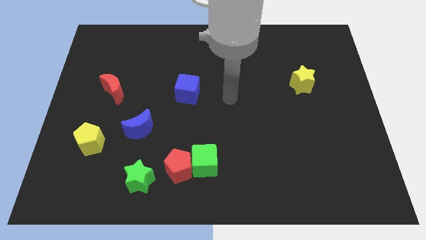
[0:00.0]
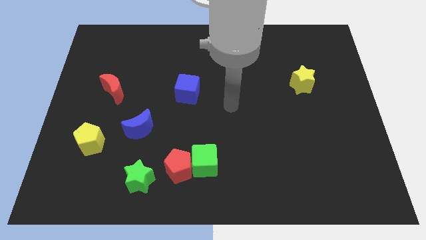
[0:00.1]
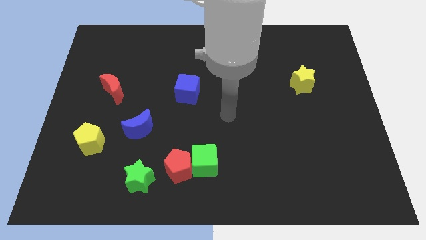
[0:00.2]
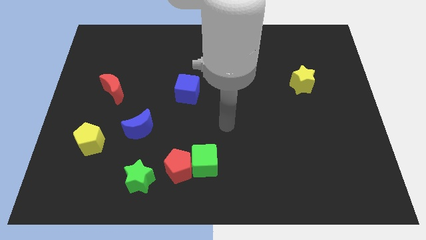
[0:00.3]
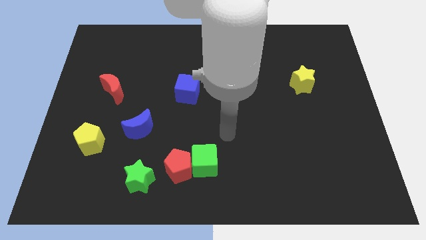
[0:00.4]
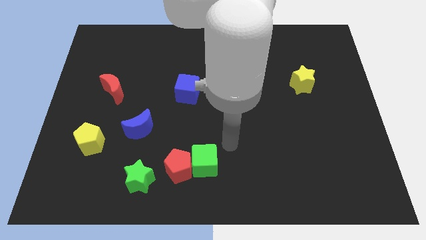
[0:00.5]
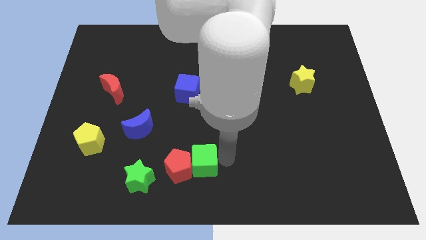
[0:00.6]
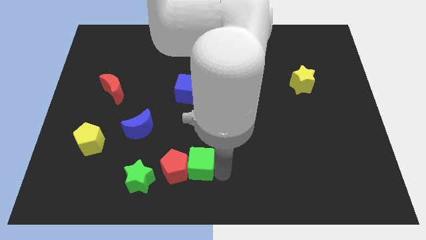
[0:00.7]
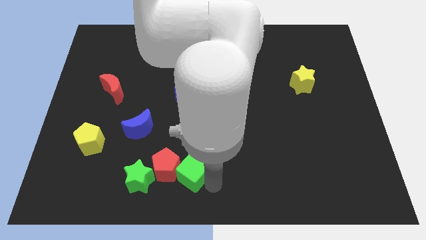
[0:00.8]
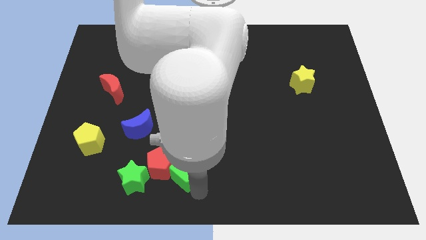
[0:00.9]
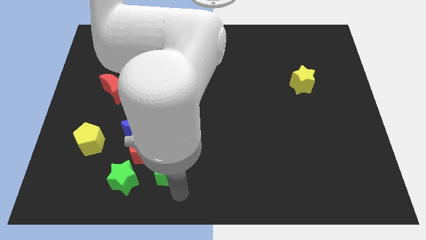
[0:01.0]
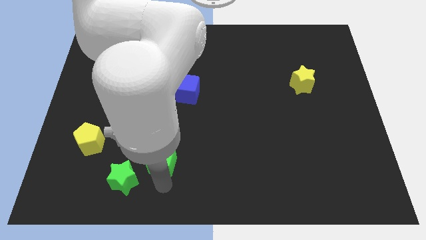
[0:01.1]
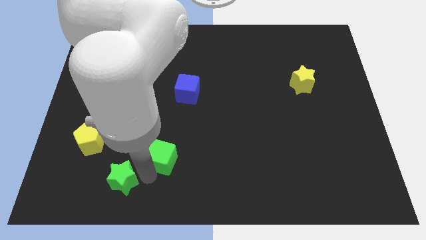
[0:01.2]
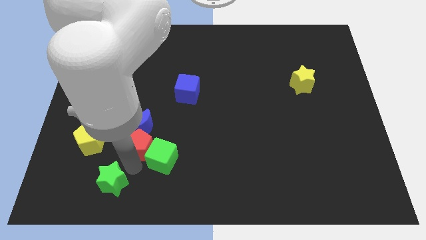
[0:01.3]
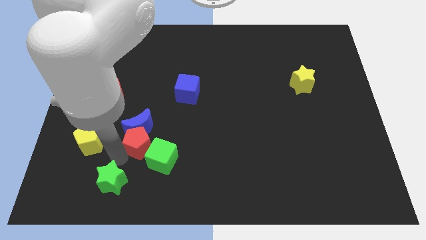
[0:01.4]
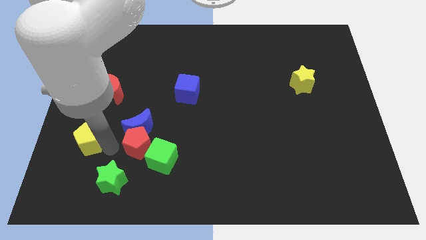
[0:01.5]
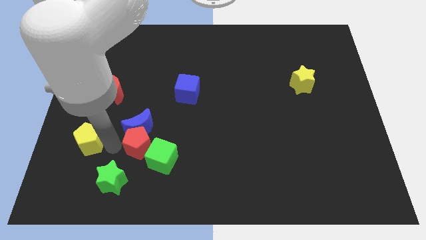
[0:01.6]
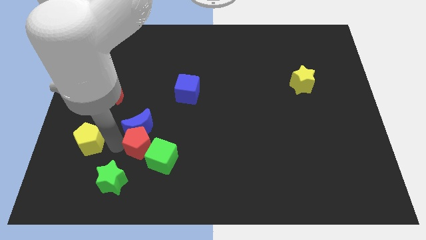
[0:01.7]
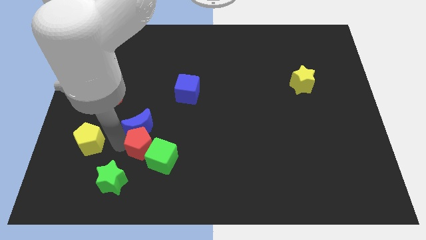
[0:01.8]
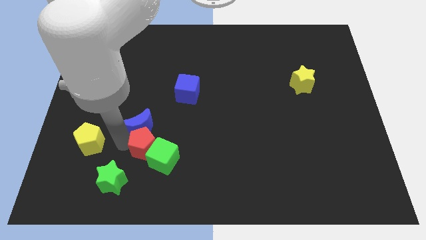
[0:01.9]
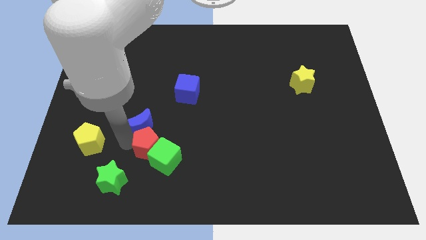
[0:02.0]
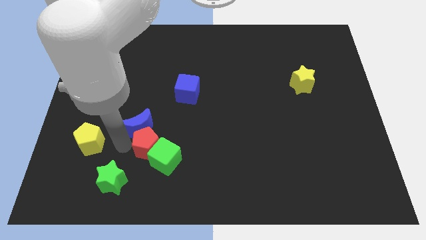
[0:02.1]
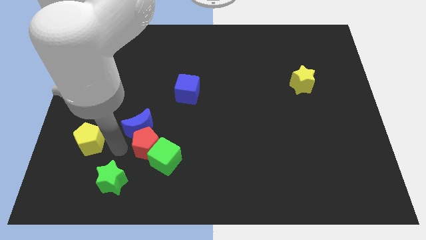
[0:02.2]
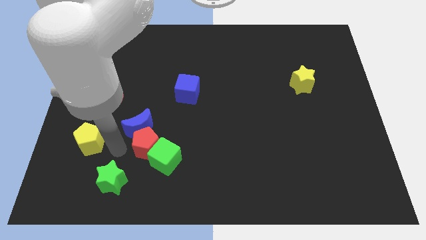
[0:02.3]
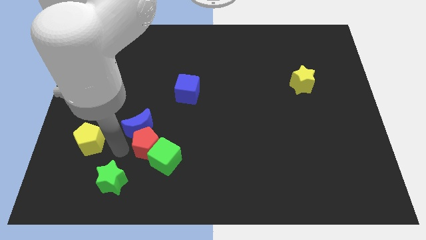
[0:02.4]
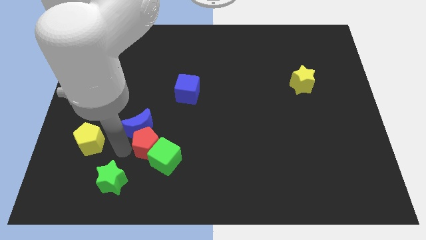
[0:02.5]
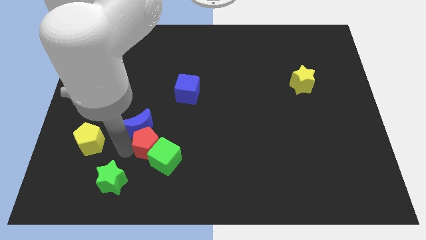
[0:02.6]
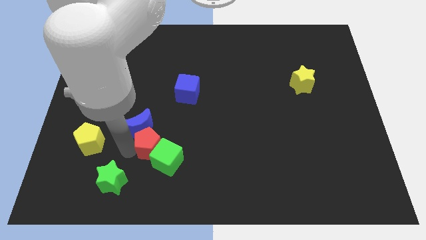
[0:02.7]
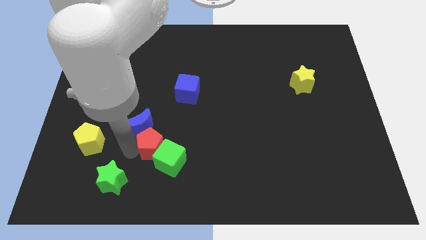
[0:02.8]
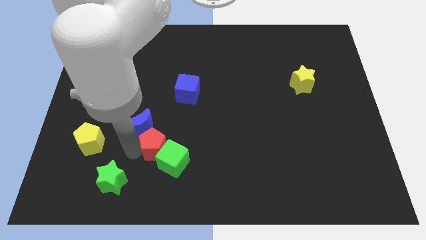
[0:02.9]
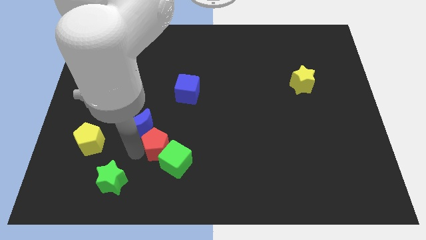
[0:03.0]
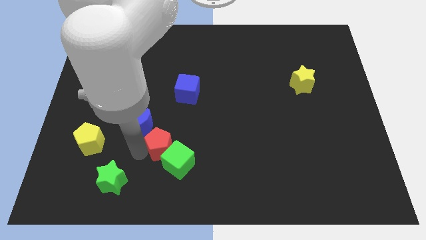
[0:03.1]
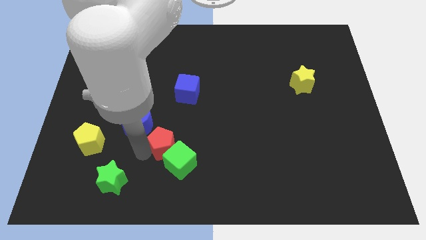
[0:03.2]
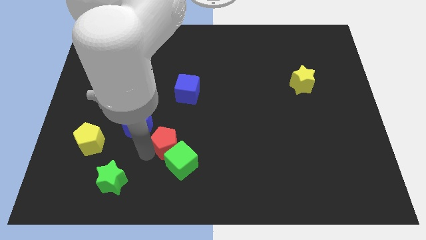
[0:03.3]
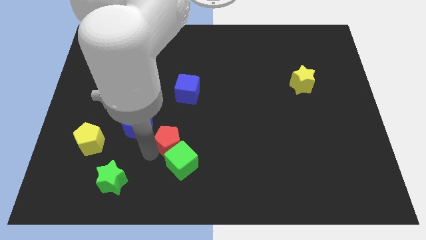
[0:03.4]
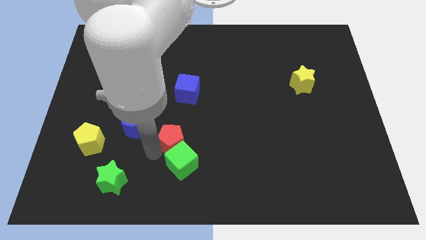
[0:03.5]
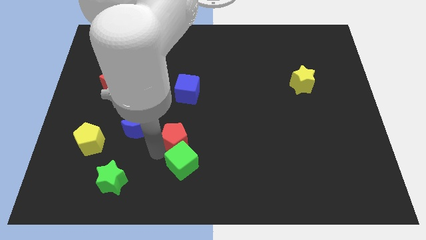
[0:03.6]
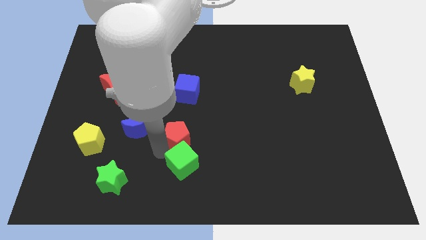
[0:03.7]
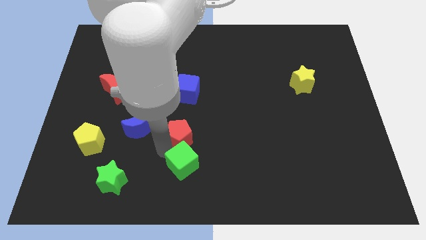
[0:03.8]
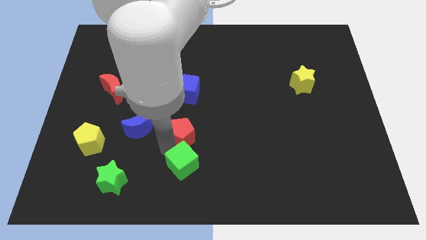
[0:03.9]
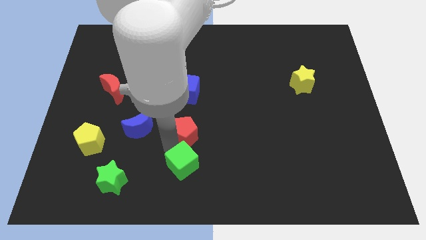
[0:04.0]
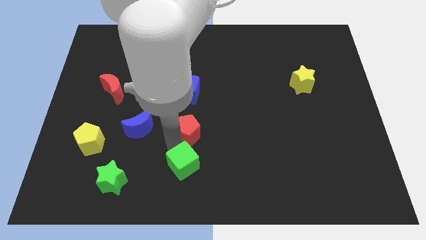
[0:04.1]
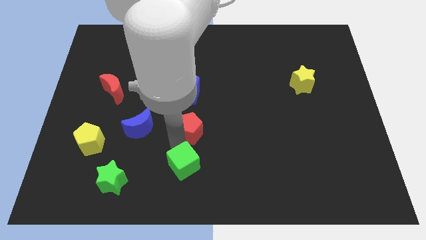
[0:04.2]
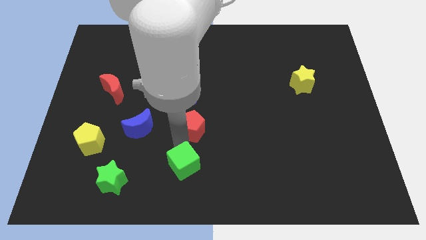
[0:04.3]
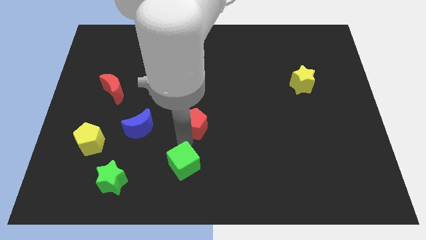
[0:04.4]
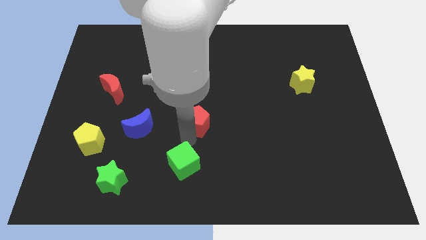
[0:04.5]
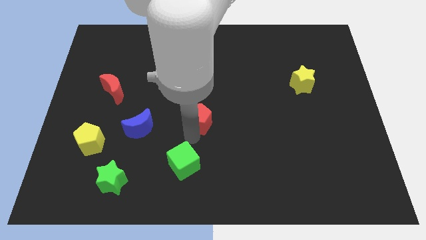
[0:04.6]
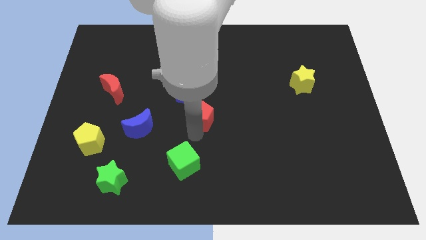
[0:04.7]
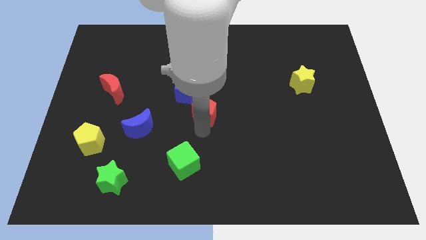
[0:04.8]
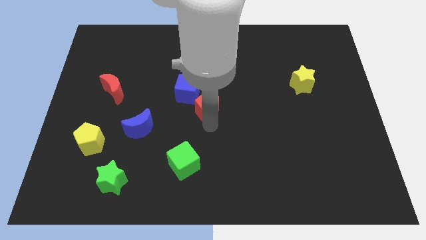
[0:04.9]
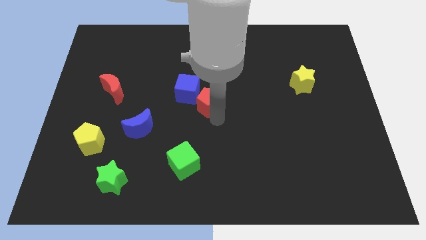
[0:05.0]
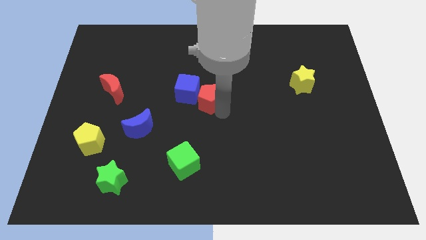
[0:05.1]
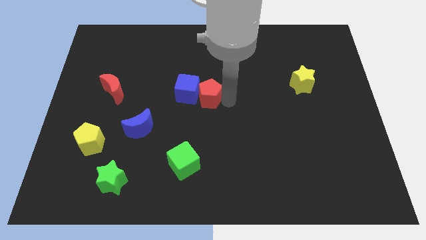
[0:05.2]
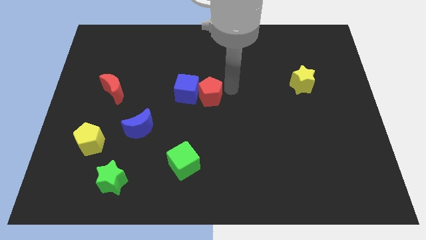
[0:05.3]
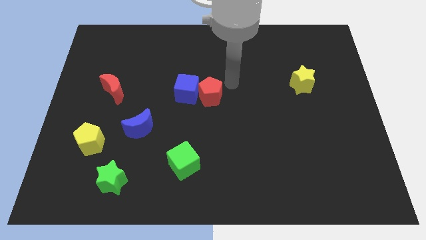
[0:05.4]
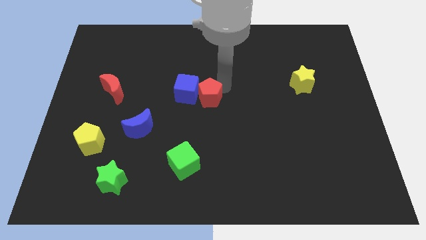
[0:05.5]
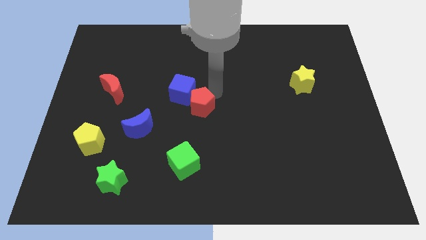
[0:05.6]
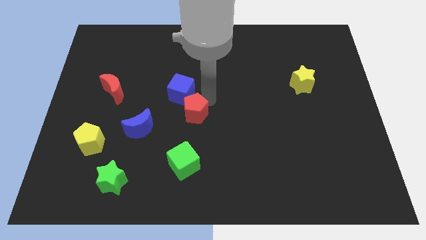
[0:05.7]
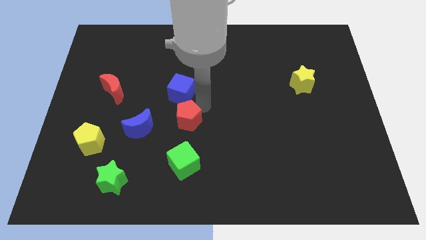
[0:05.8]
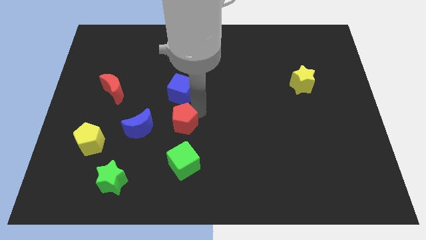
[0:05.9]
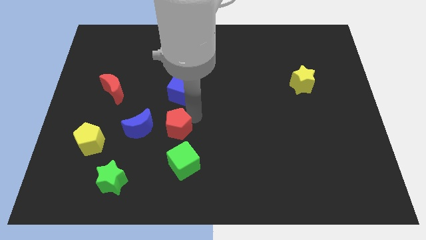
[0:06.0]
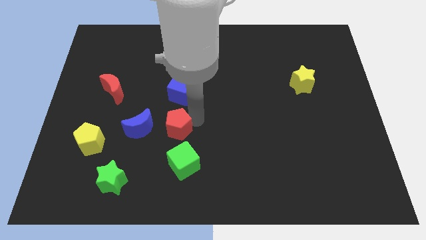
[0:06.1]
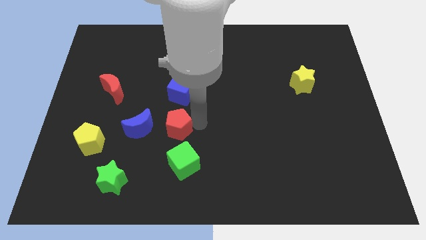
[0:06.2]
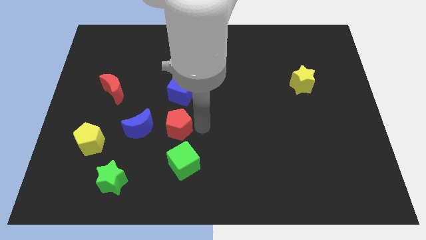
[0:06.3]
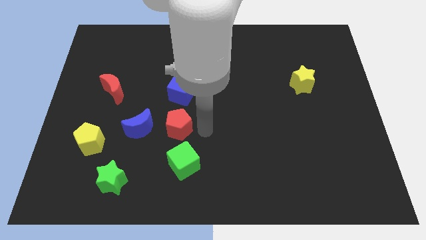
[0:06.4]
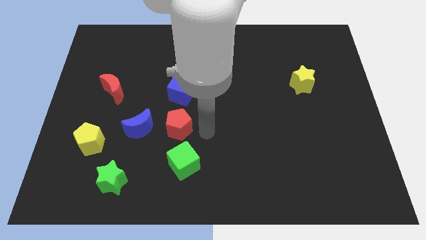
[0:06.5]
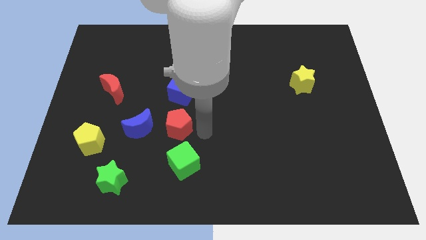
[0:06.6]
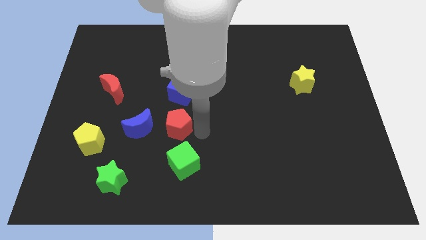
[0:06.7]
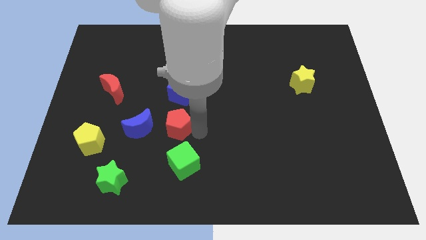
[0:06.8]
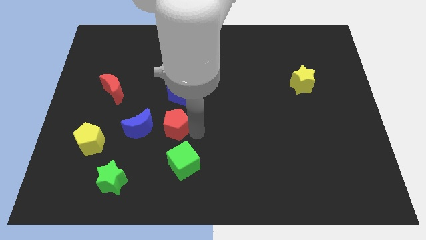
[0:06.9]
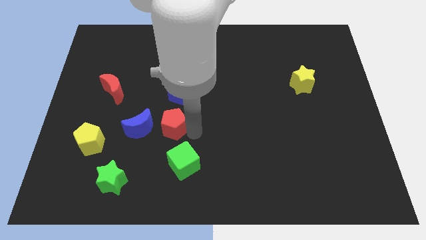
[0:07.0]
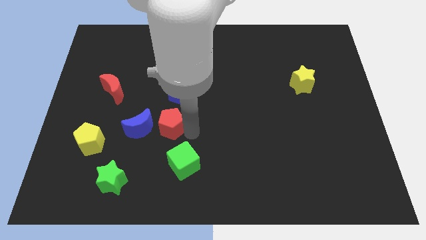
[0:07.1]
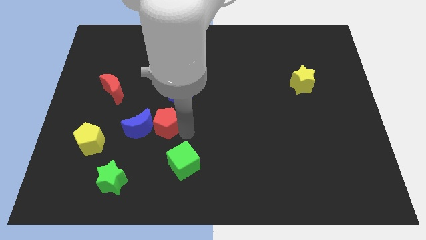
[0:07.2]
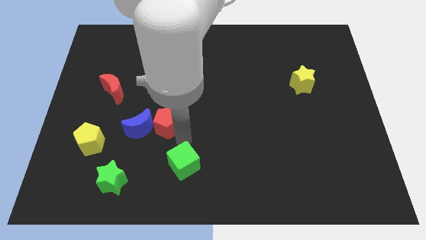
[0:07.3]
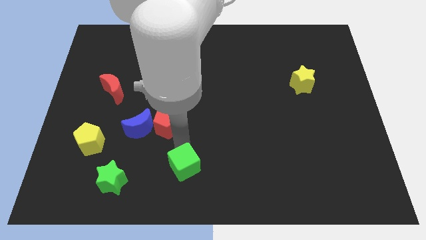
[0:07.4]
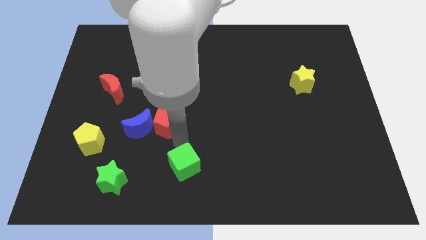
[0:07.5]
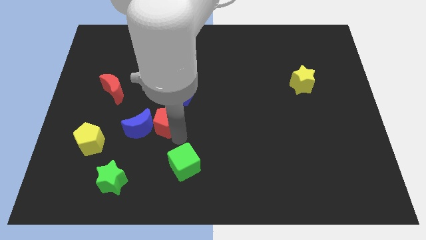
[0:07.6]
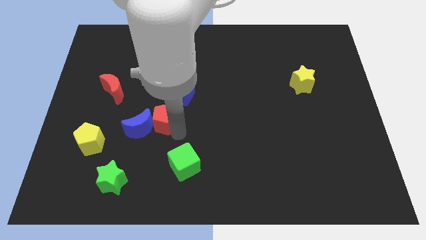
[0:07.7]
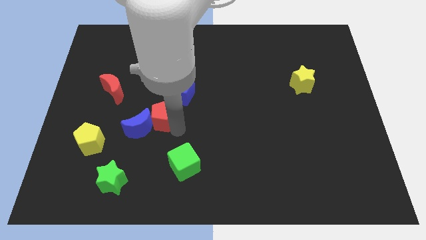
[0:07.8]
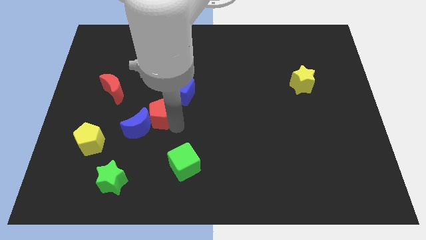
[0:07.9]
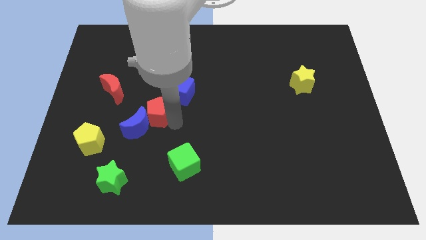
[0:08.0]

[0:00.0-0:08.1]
move the red pentagon to the top side of the blue moon
